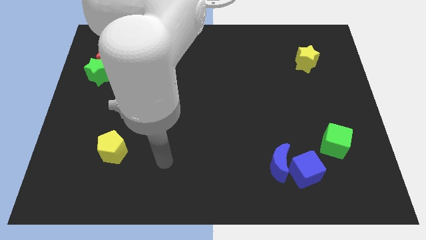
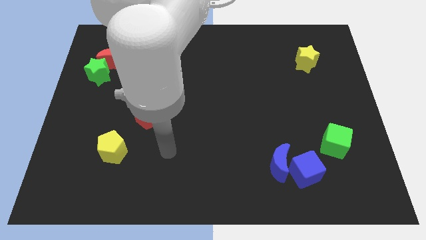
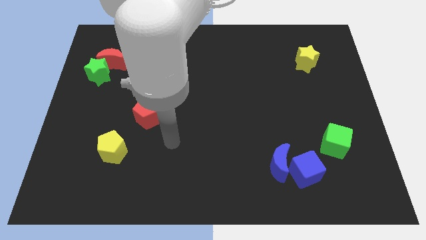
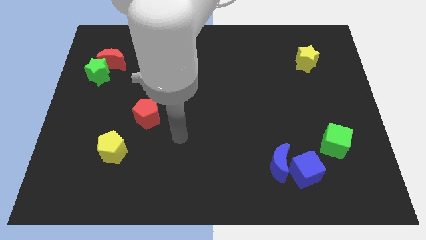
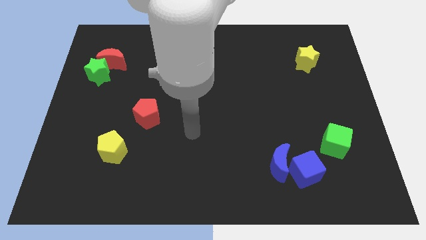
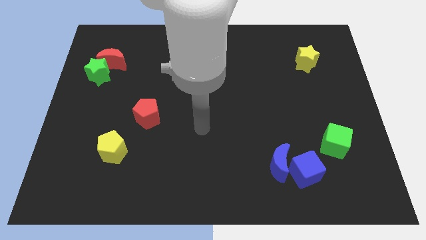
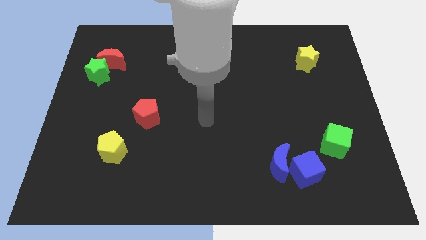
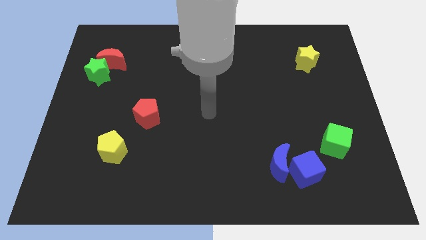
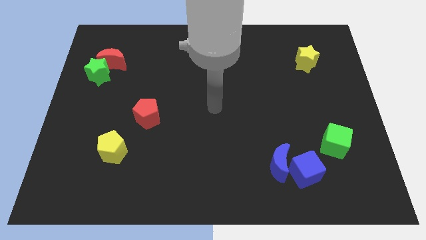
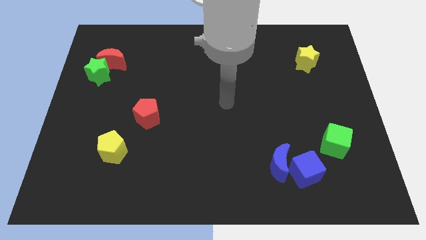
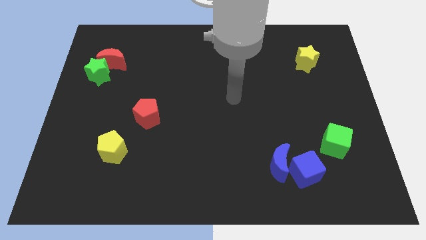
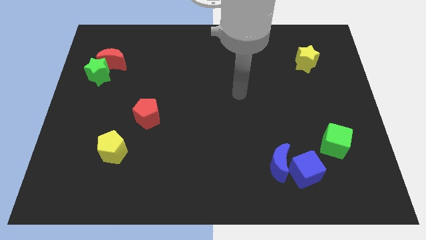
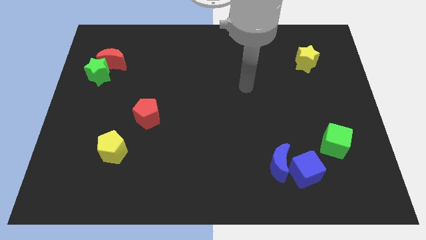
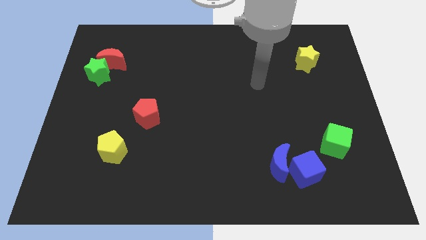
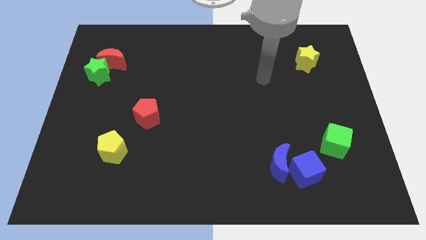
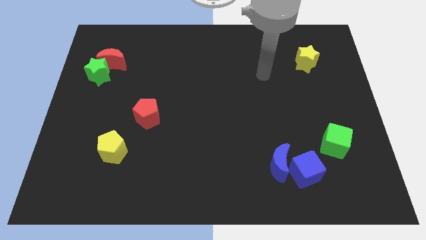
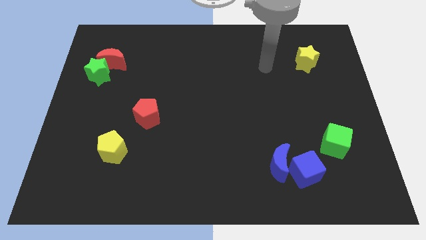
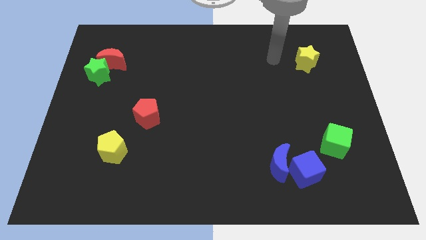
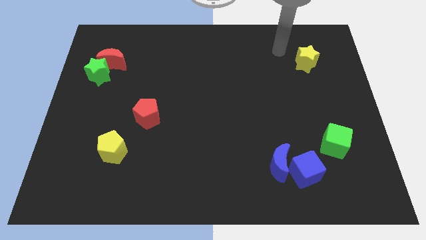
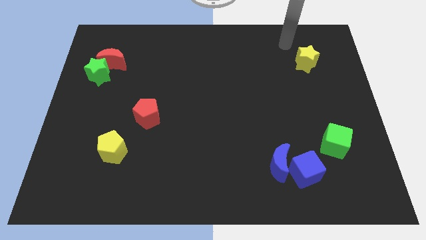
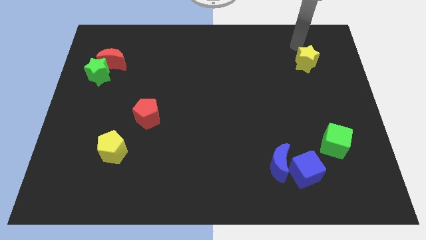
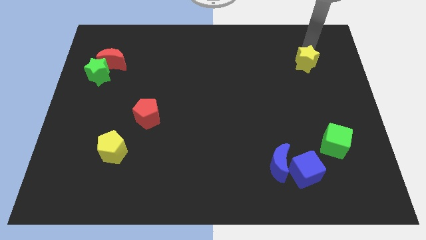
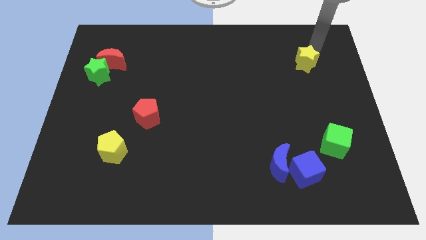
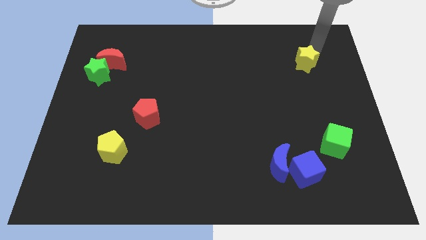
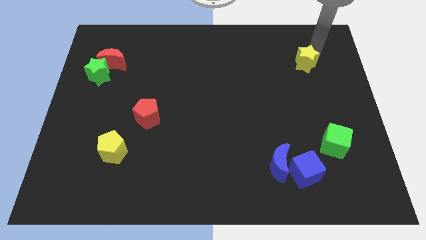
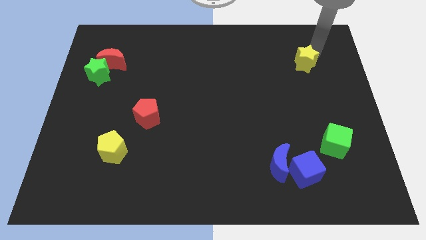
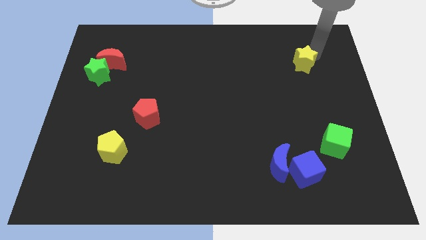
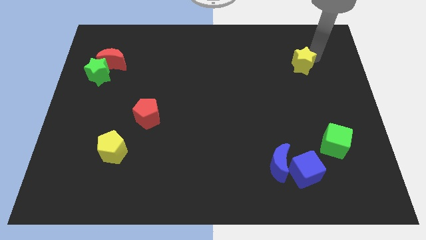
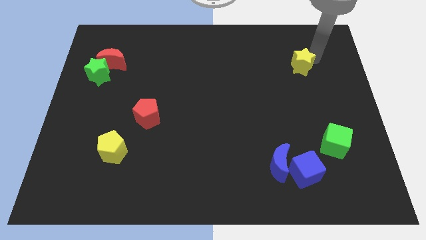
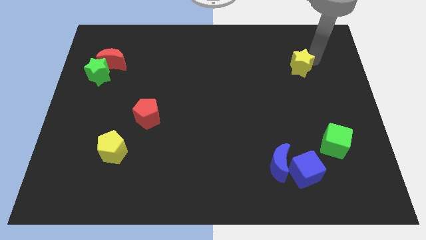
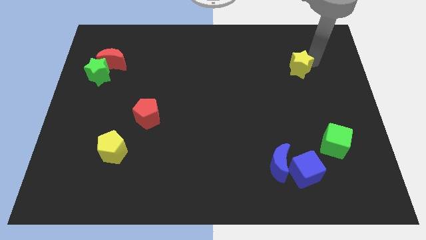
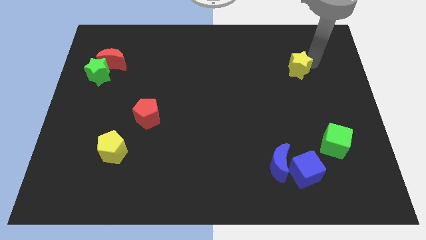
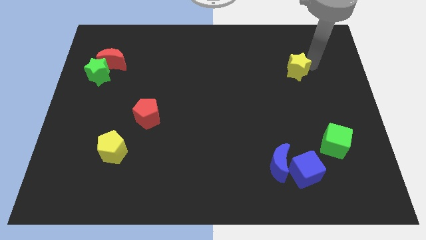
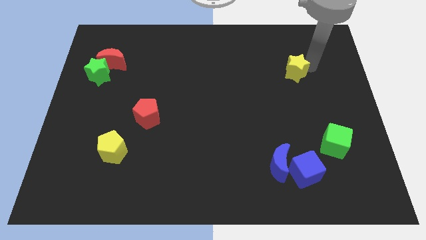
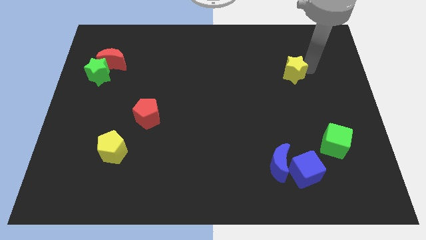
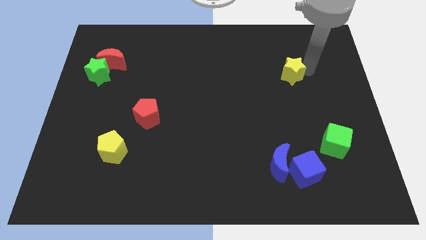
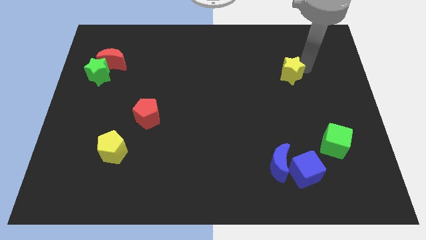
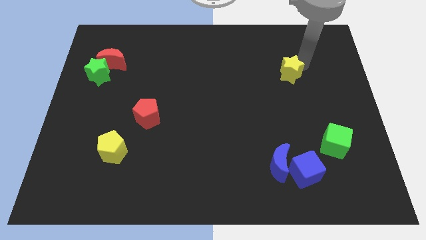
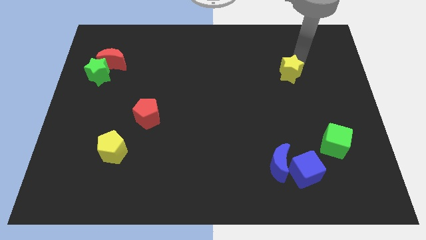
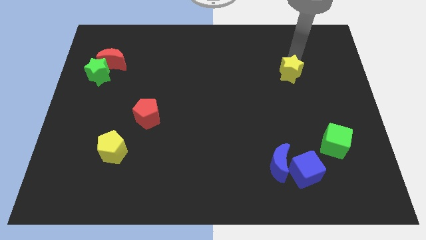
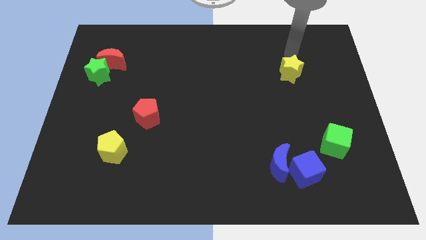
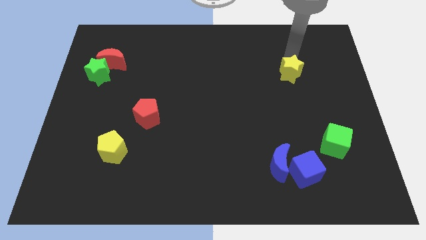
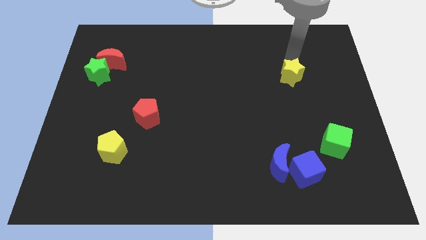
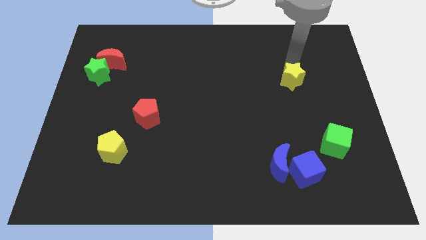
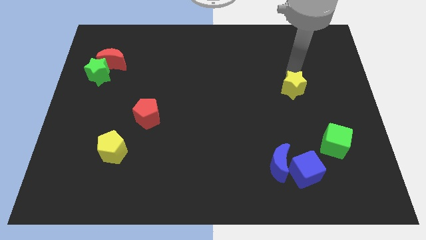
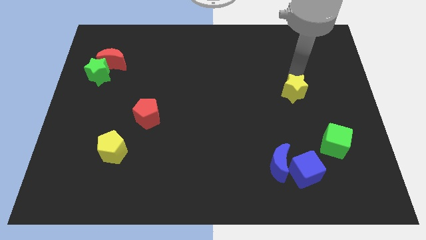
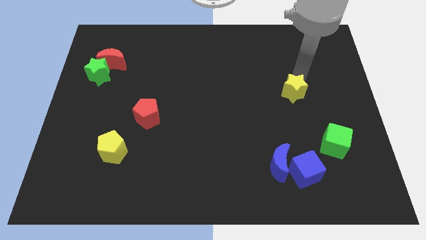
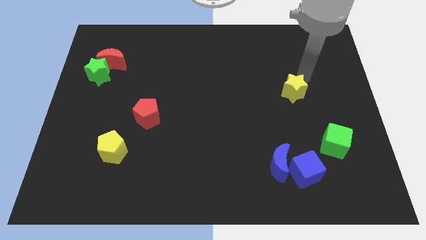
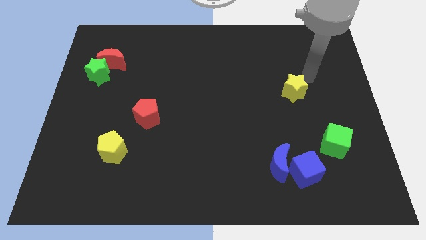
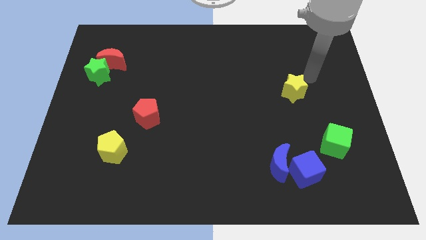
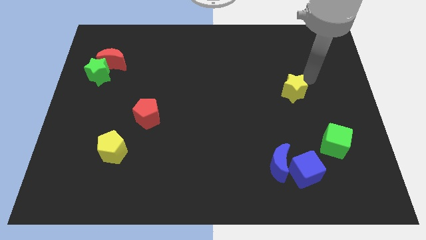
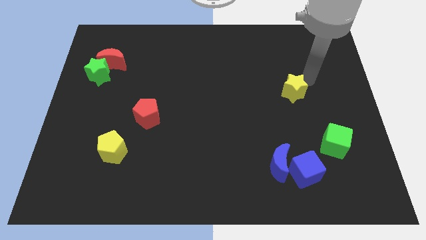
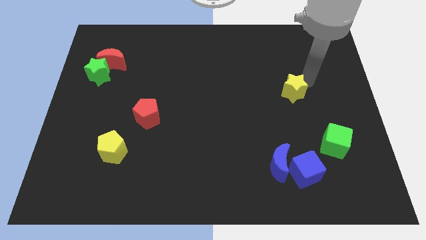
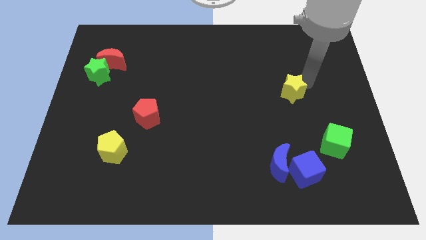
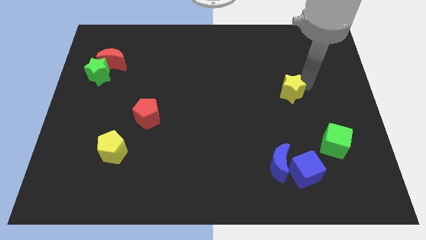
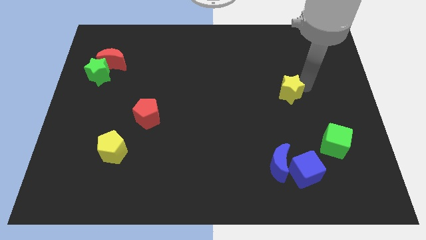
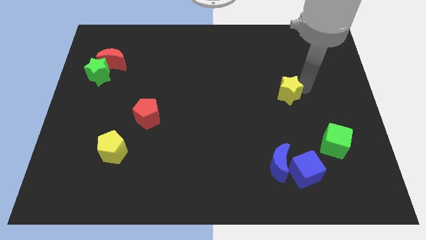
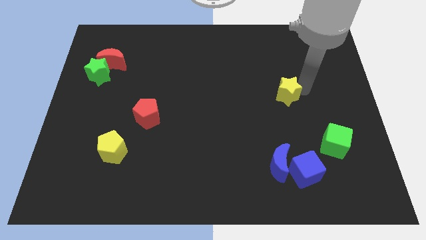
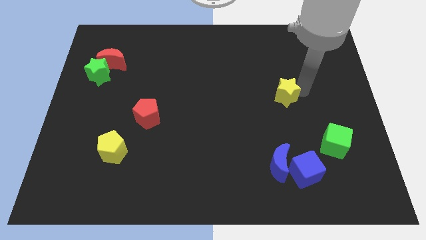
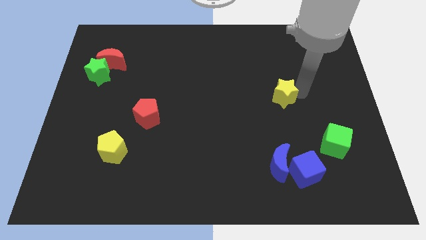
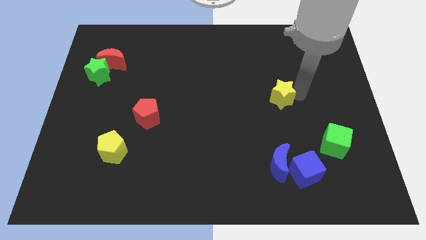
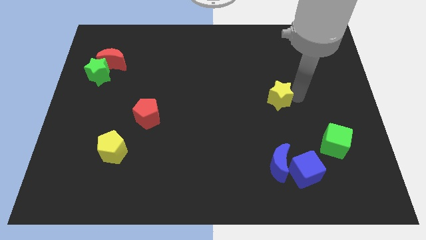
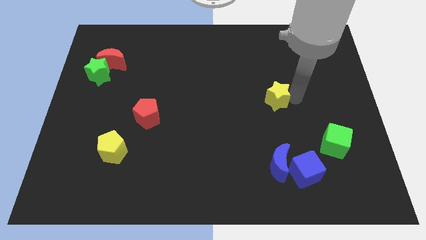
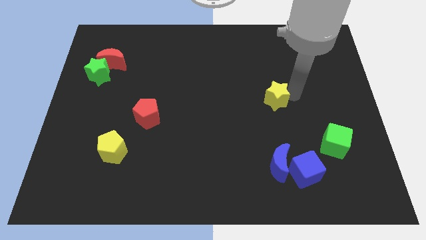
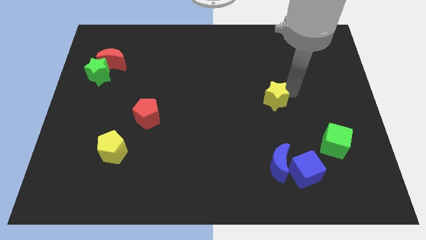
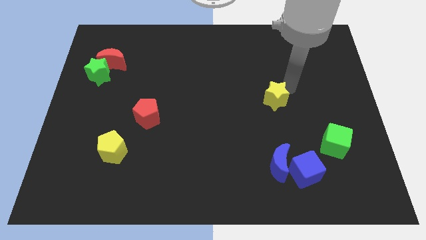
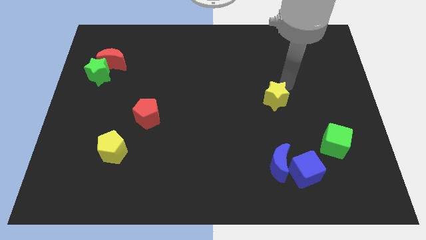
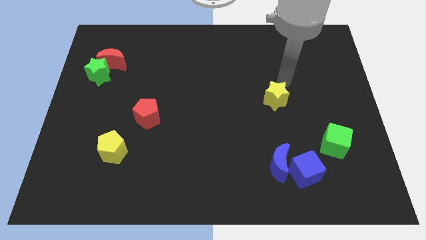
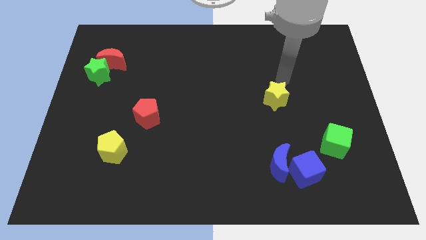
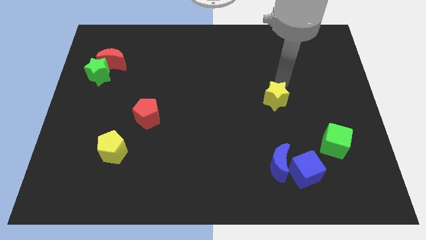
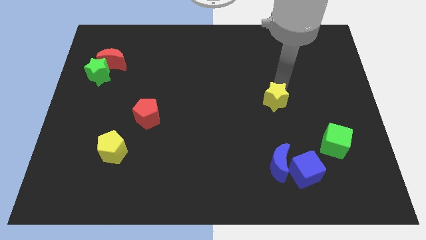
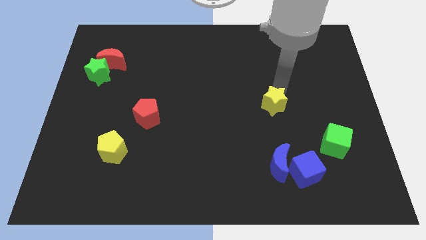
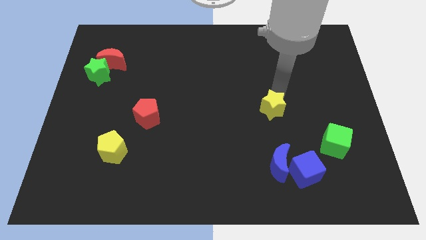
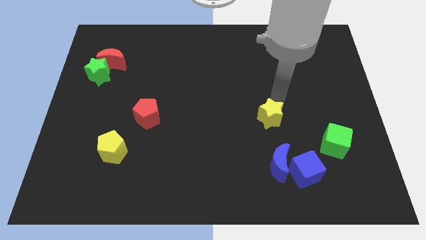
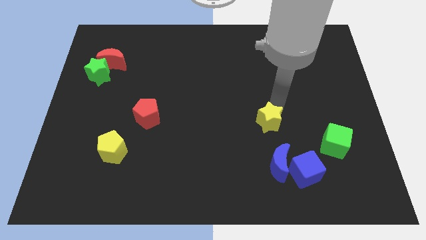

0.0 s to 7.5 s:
slide the yellow star down and then left

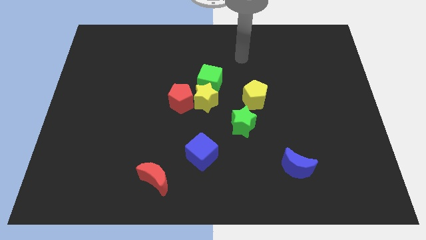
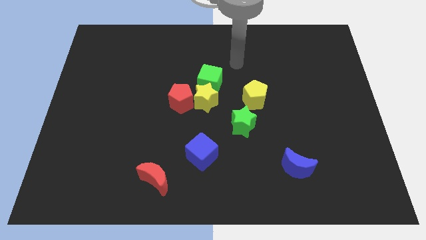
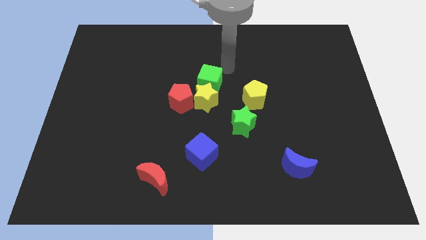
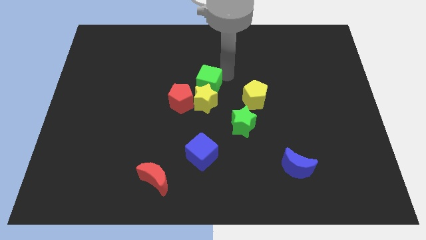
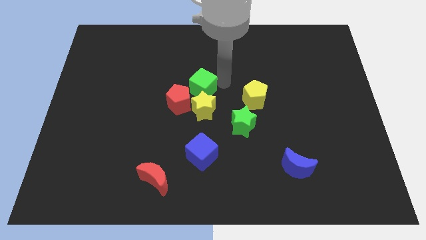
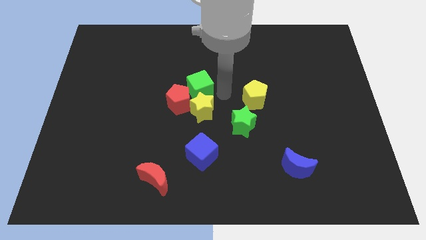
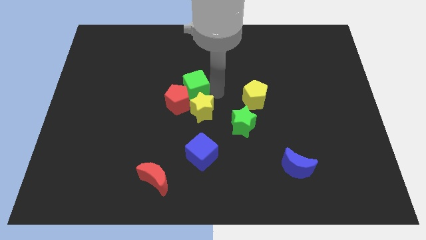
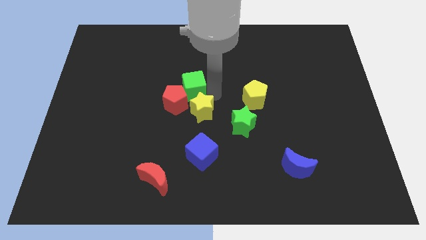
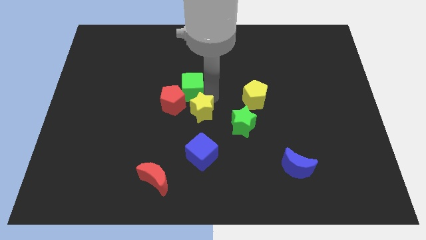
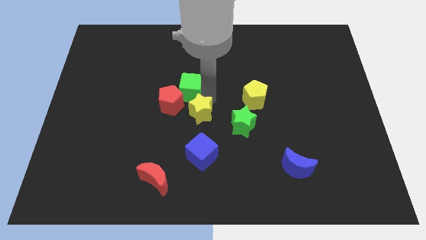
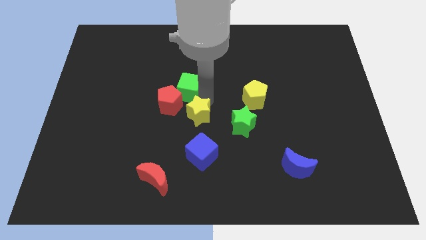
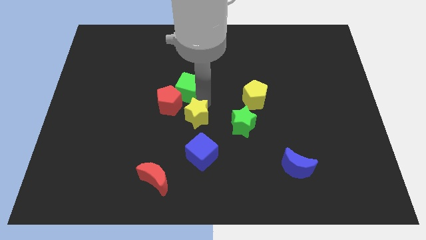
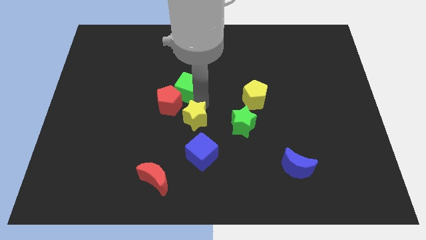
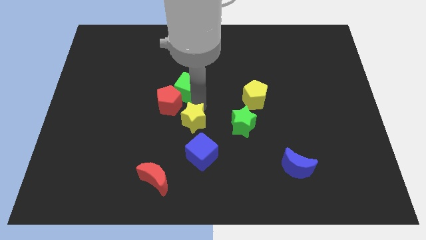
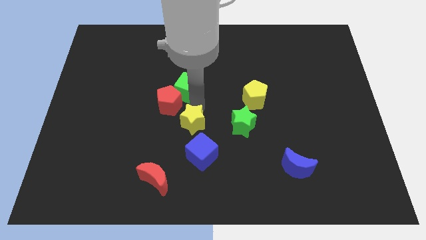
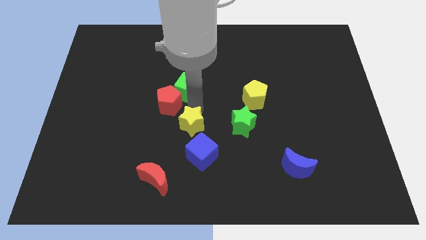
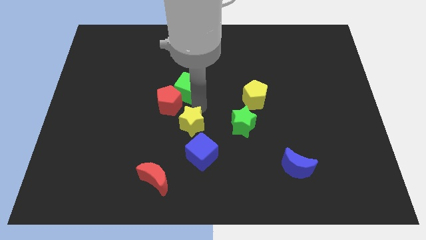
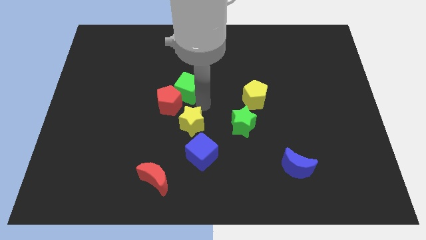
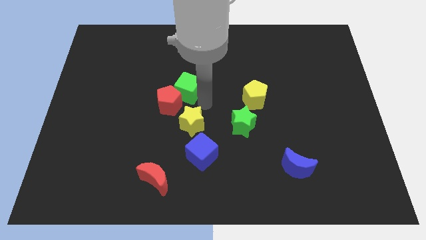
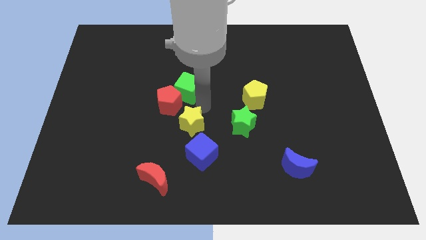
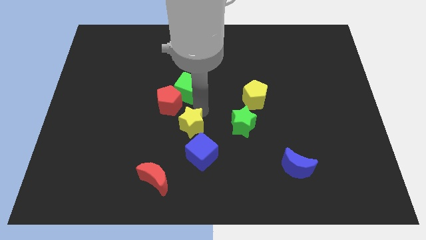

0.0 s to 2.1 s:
slightly slide the yellow star downwards
